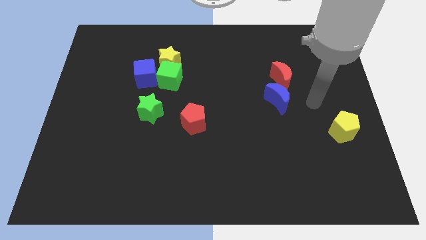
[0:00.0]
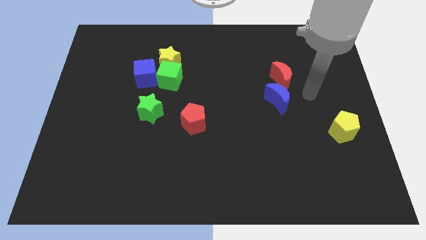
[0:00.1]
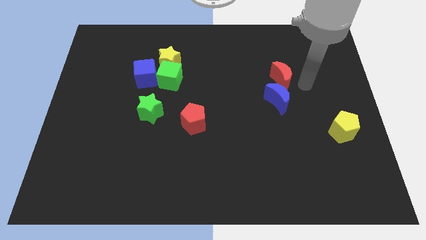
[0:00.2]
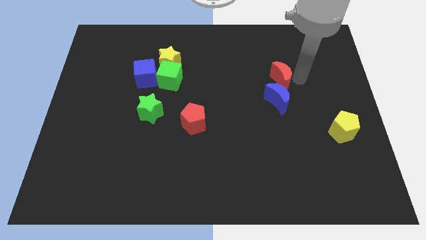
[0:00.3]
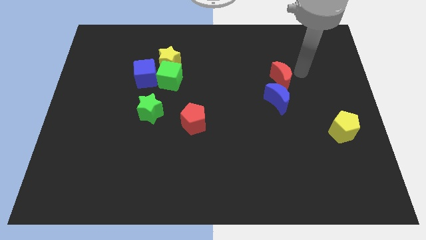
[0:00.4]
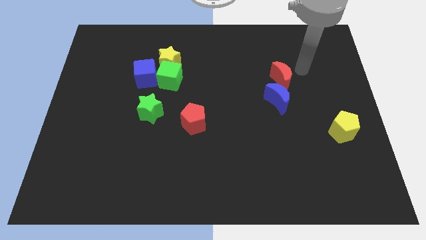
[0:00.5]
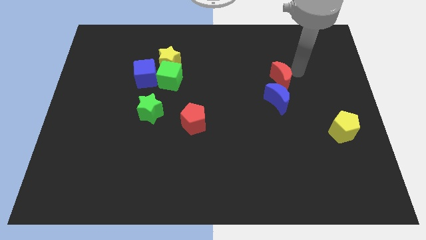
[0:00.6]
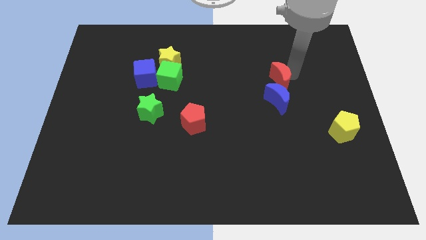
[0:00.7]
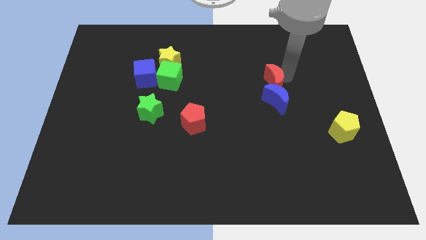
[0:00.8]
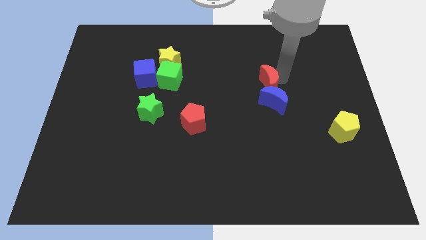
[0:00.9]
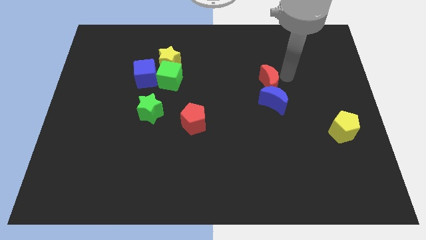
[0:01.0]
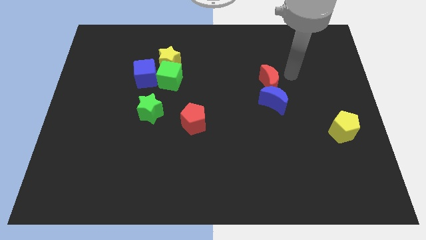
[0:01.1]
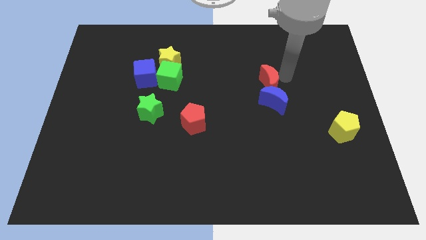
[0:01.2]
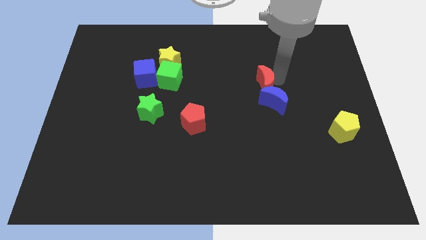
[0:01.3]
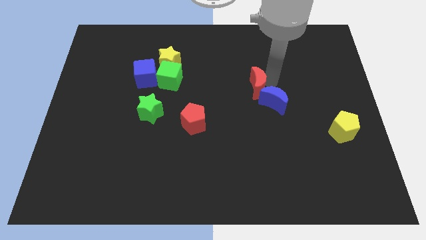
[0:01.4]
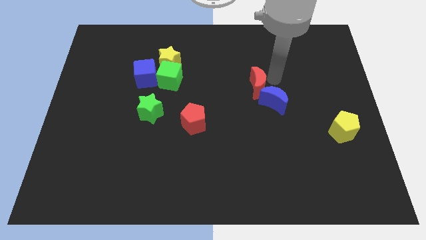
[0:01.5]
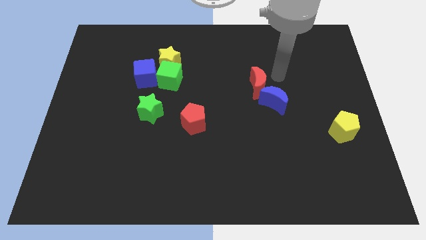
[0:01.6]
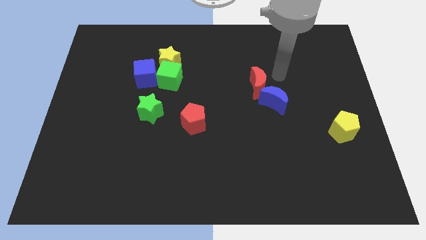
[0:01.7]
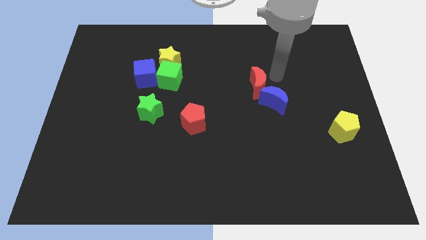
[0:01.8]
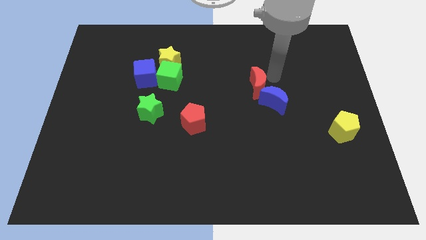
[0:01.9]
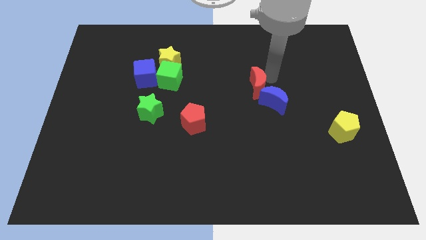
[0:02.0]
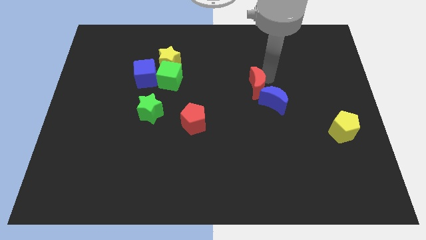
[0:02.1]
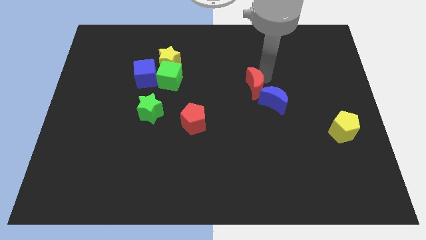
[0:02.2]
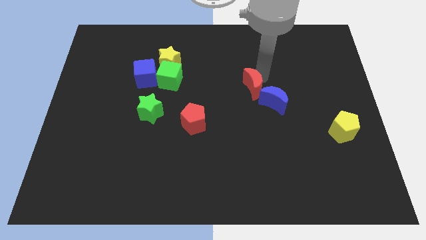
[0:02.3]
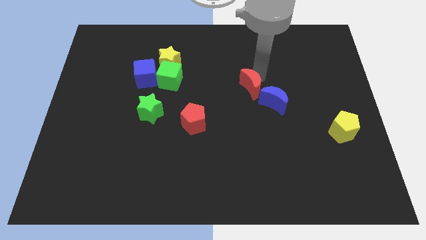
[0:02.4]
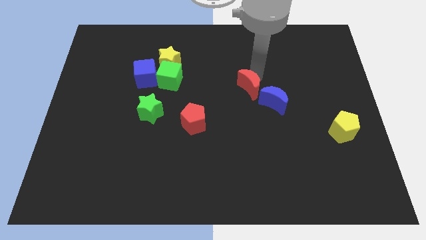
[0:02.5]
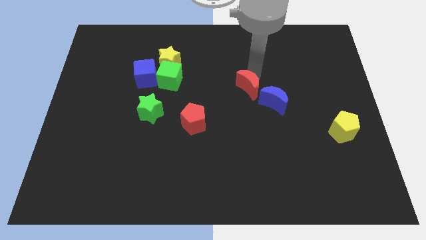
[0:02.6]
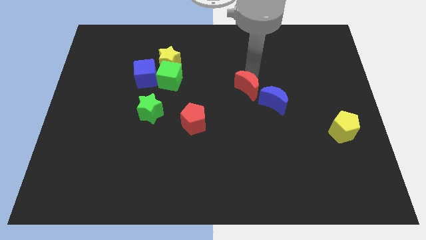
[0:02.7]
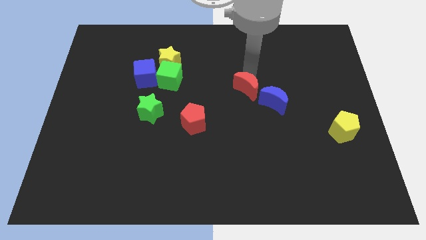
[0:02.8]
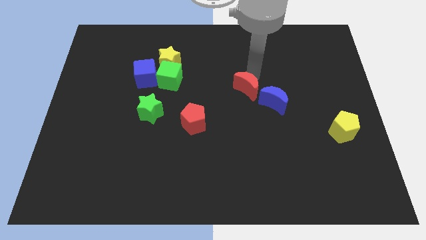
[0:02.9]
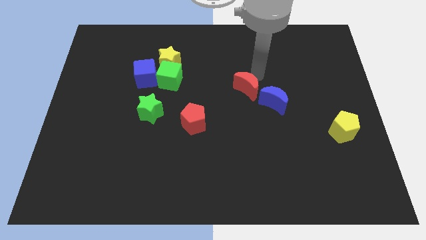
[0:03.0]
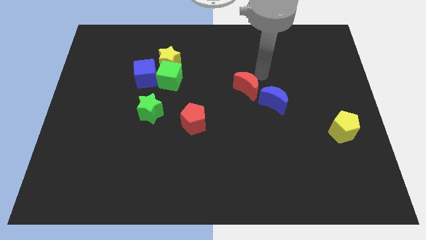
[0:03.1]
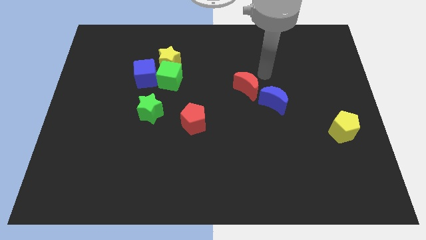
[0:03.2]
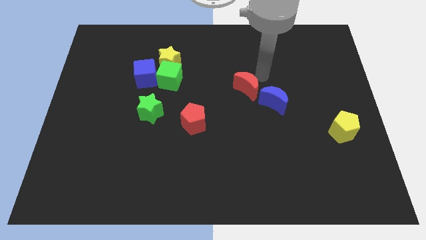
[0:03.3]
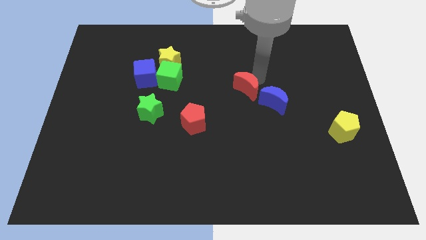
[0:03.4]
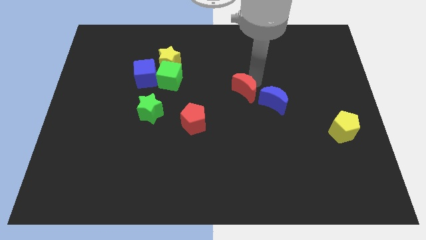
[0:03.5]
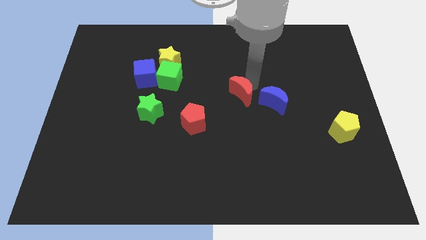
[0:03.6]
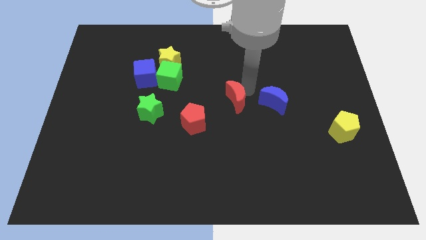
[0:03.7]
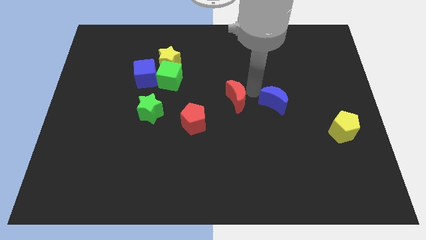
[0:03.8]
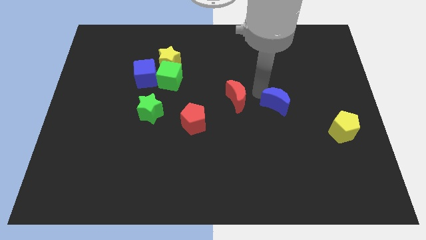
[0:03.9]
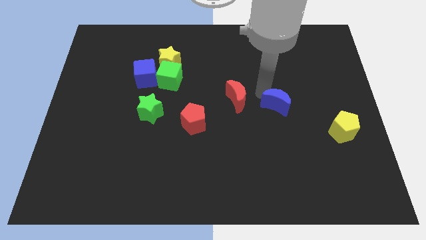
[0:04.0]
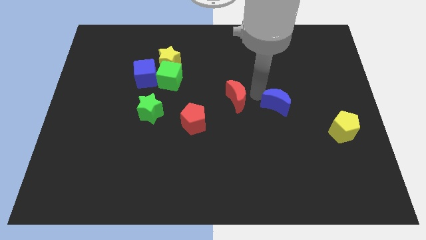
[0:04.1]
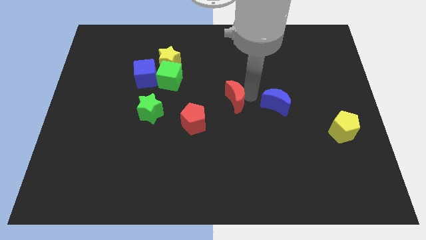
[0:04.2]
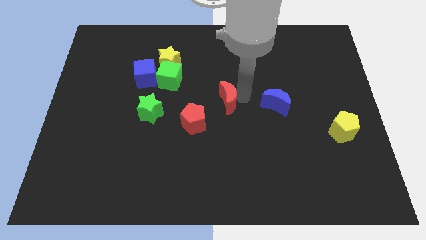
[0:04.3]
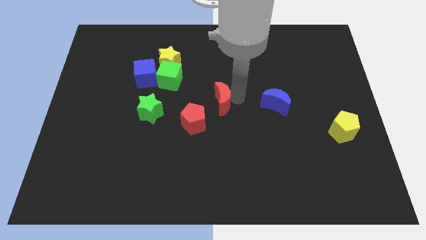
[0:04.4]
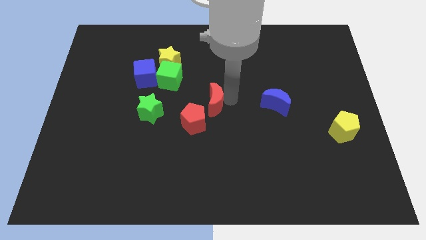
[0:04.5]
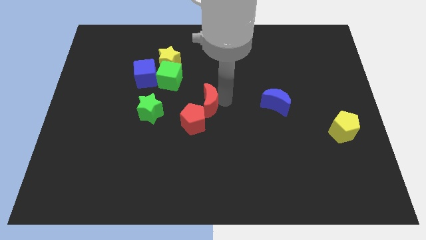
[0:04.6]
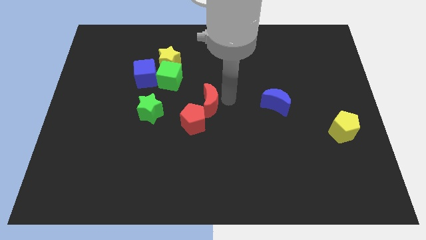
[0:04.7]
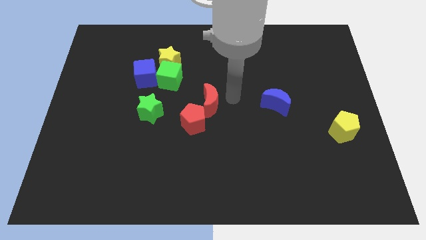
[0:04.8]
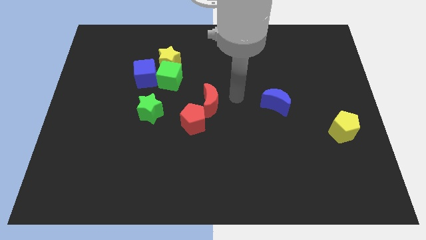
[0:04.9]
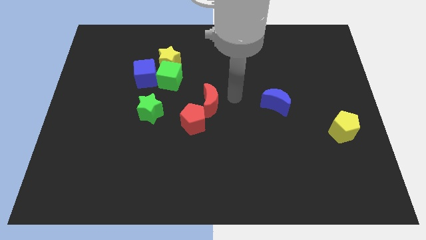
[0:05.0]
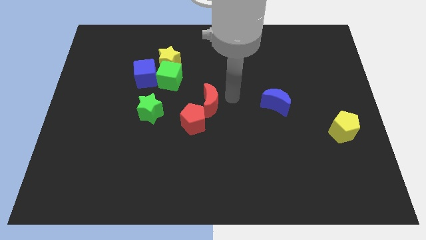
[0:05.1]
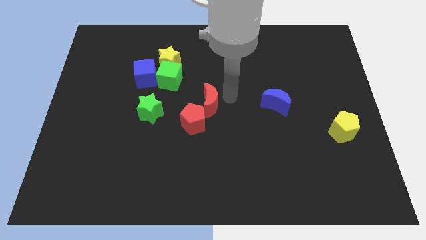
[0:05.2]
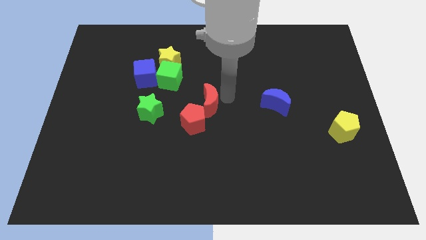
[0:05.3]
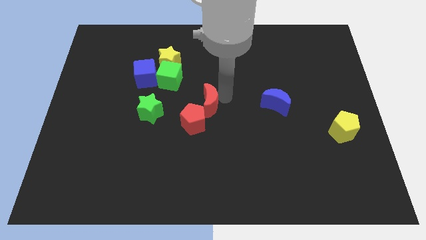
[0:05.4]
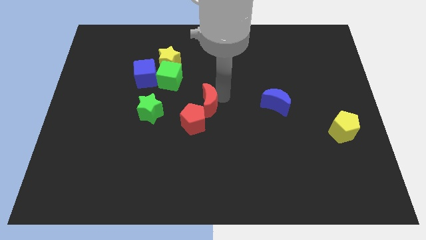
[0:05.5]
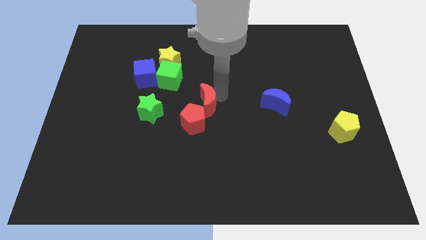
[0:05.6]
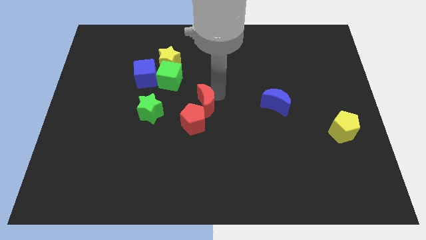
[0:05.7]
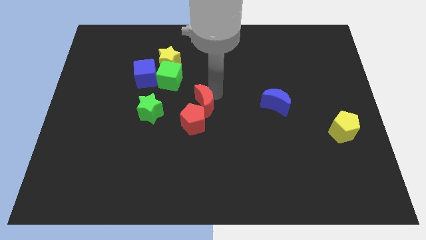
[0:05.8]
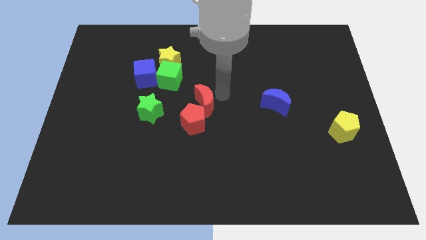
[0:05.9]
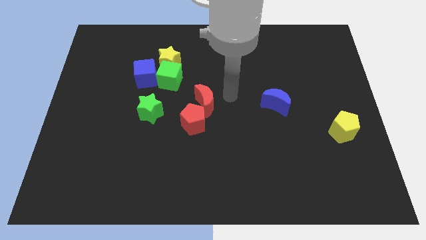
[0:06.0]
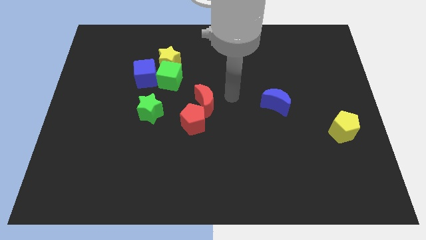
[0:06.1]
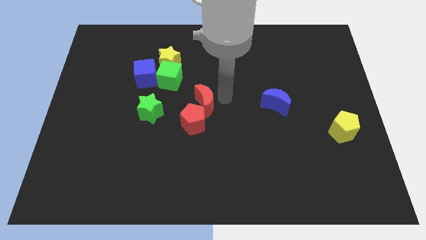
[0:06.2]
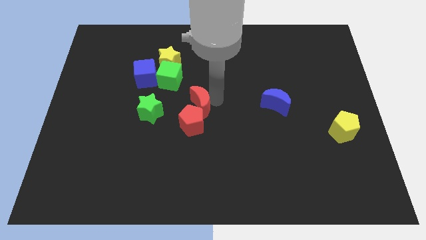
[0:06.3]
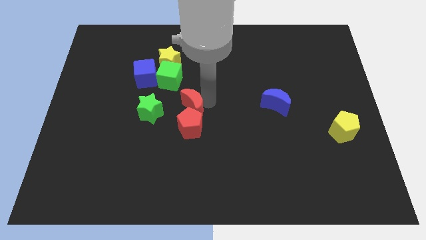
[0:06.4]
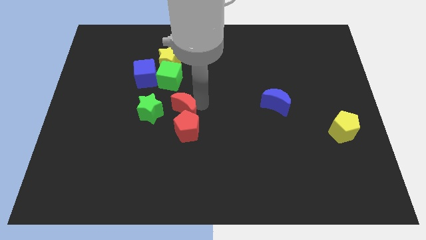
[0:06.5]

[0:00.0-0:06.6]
move the red moon to the bottom side of the green cube
